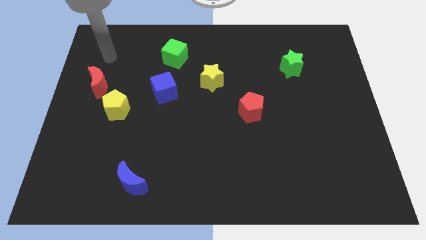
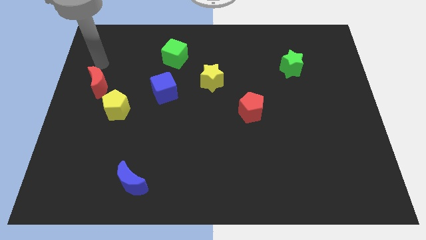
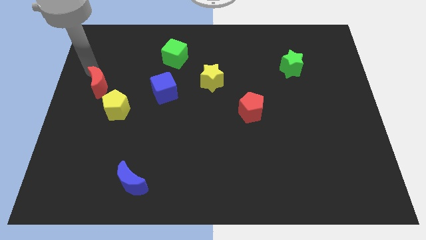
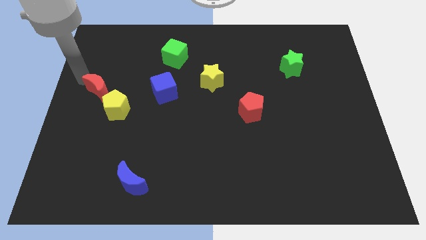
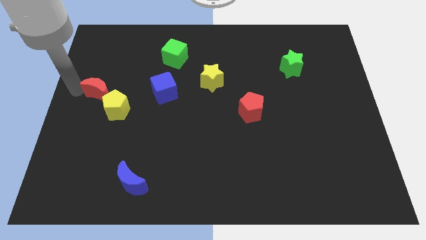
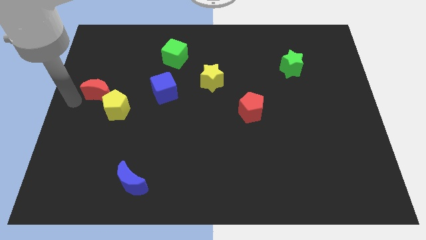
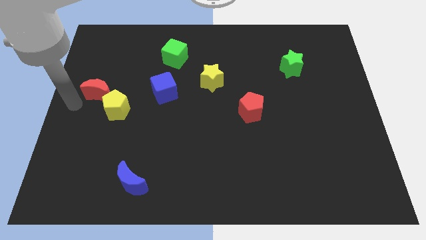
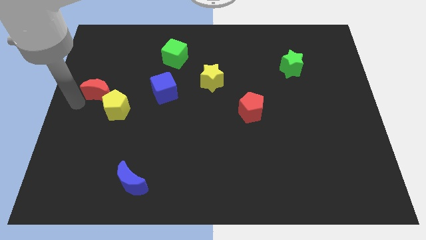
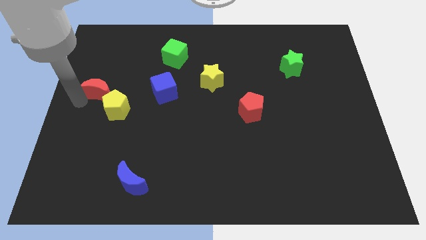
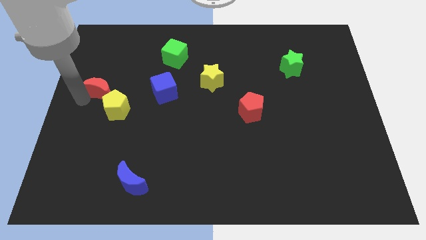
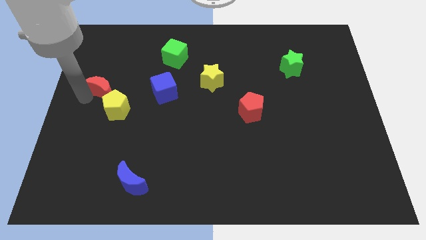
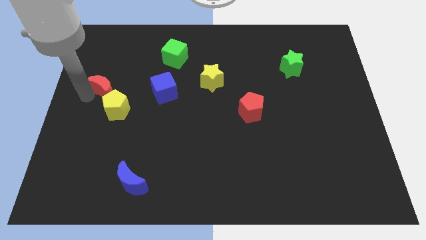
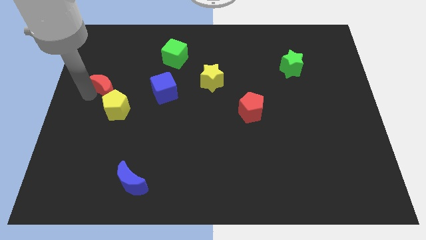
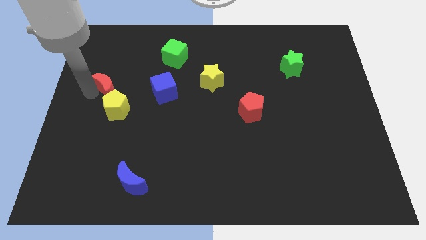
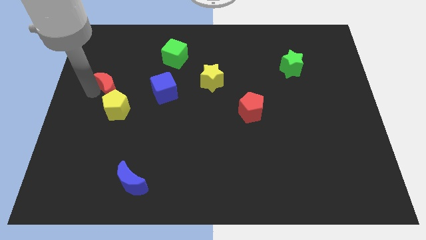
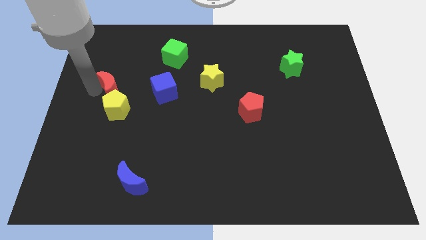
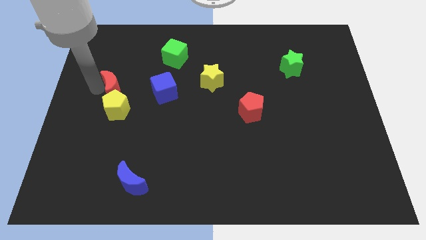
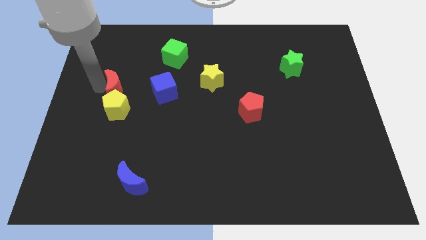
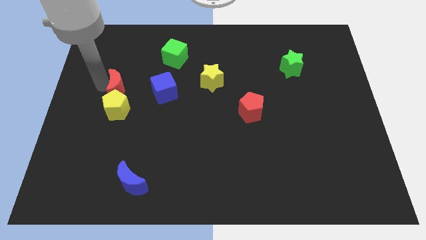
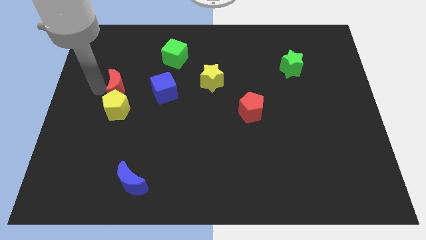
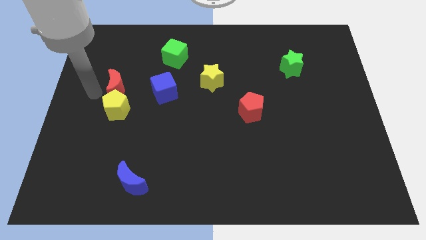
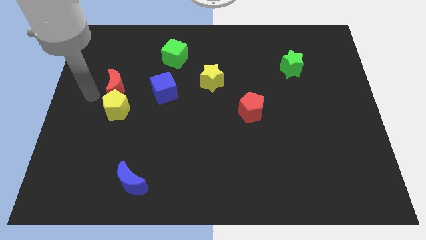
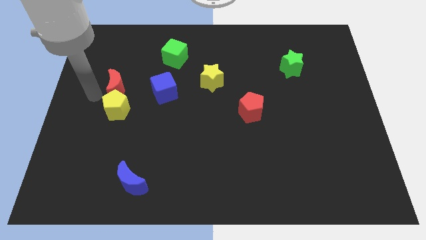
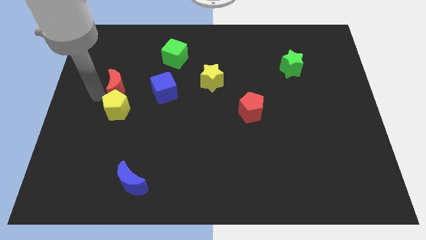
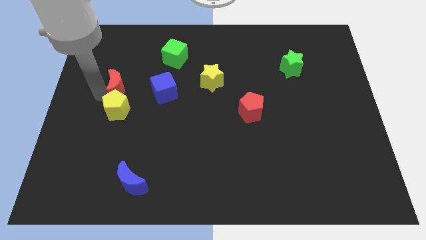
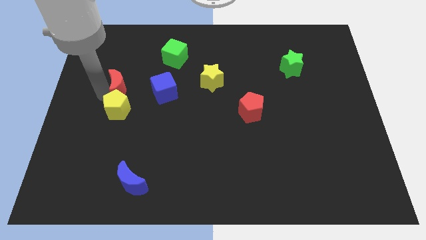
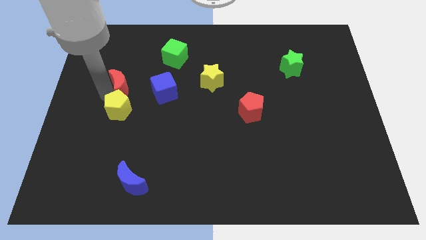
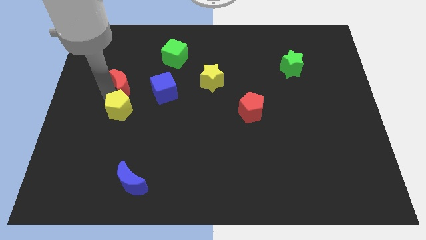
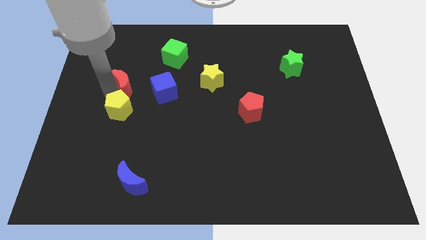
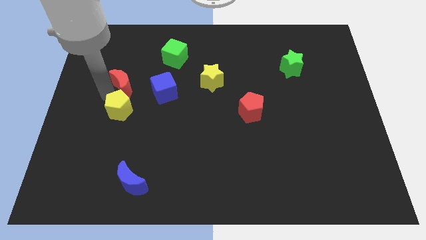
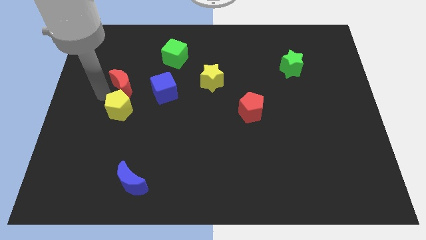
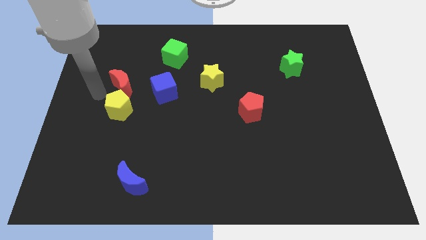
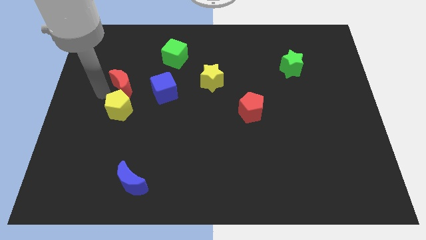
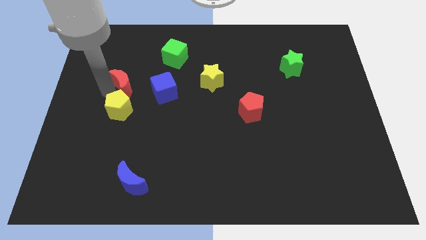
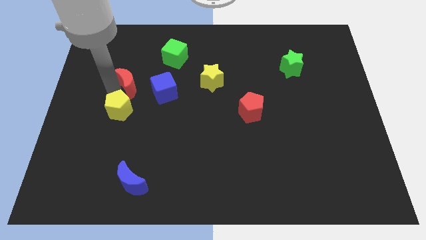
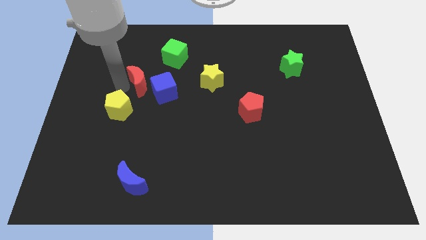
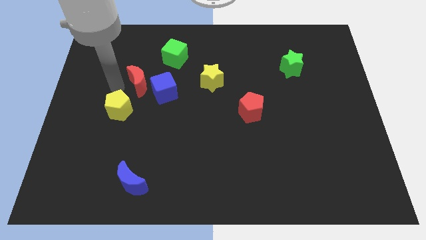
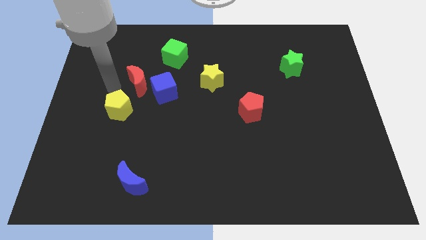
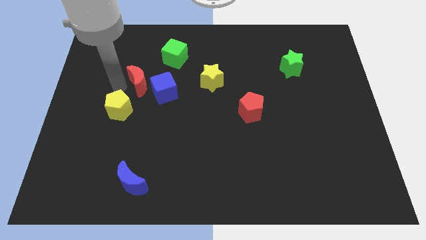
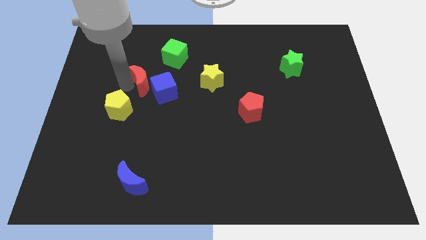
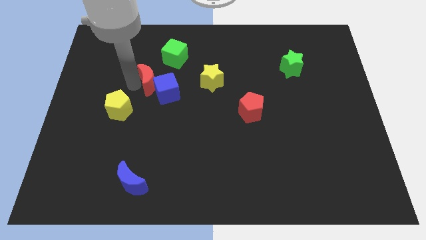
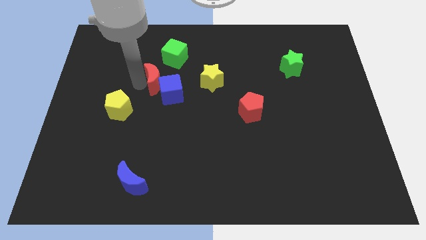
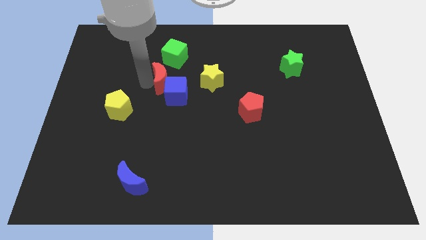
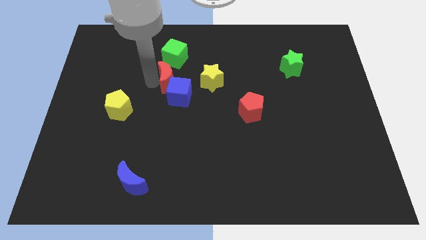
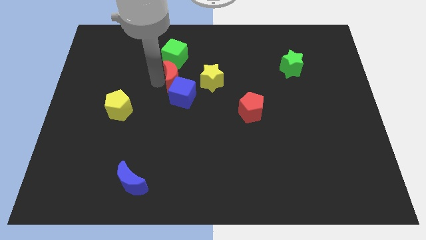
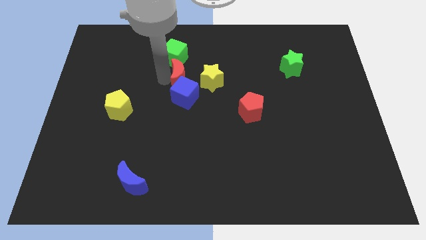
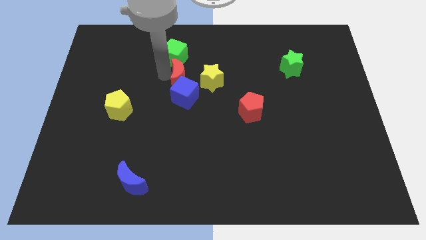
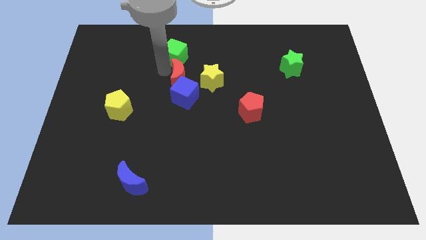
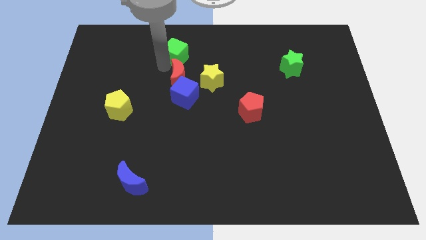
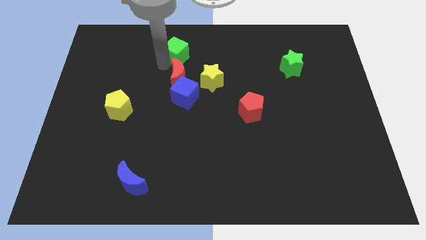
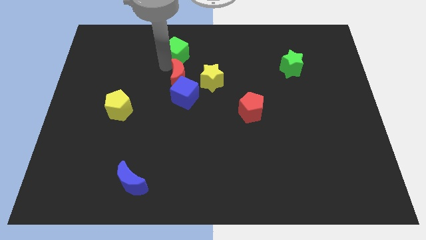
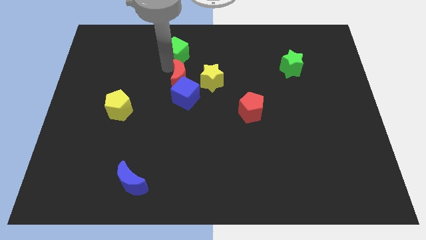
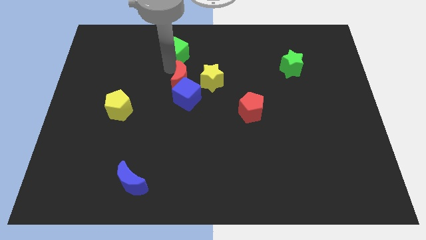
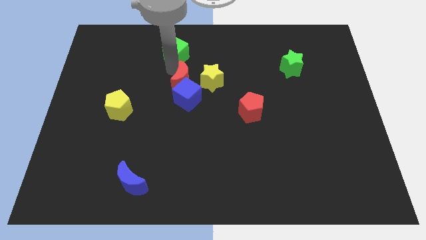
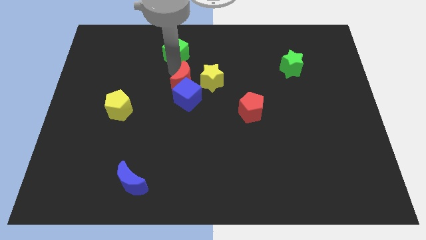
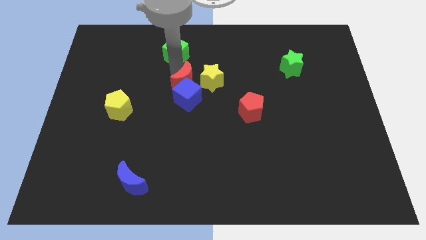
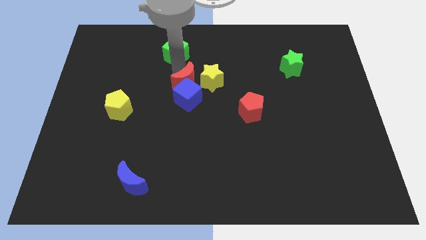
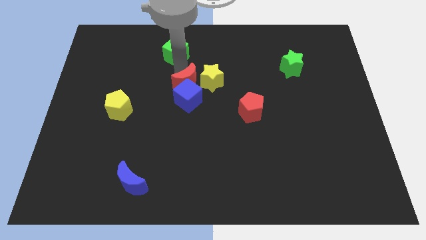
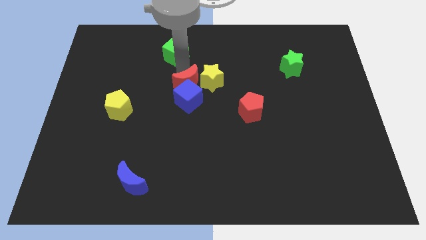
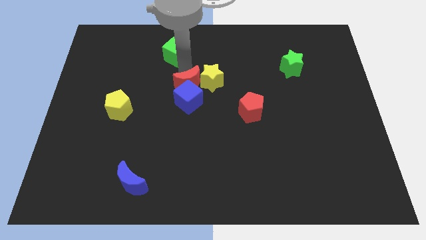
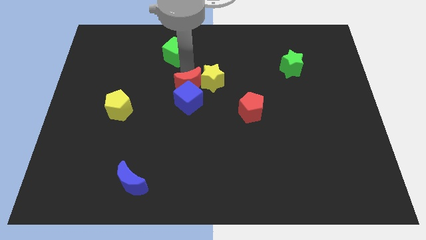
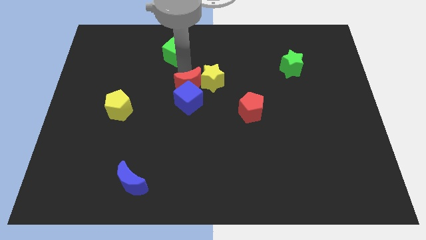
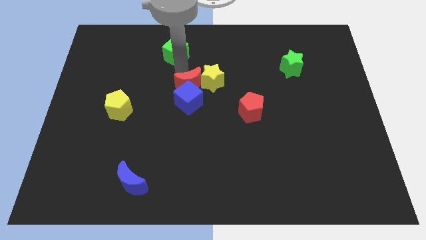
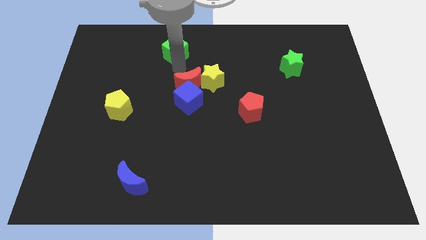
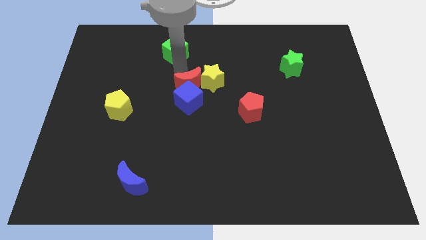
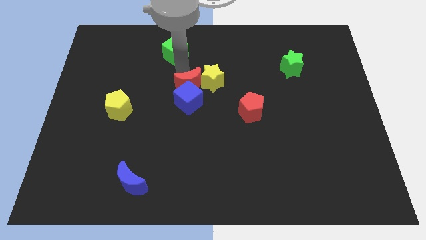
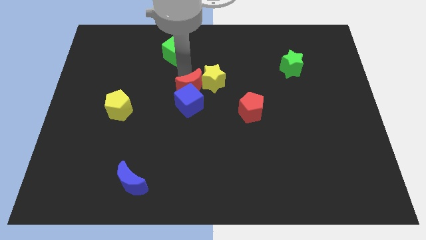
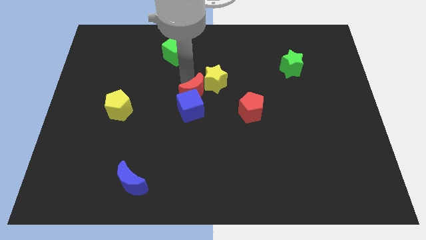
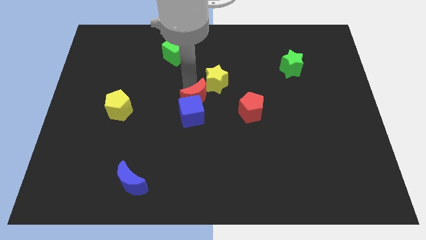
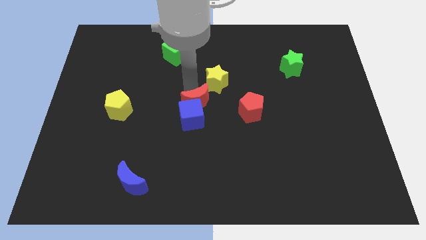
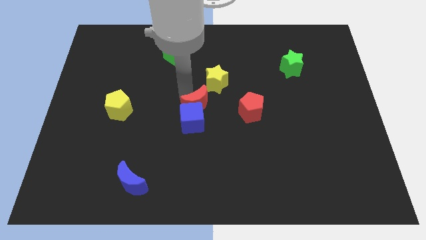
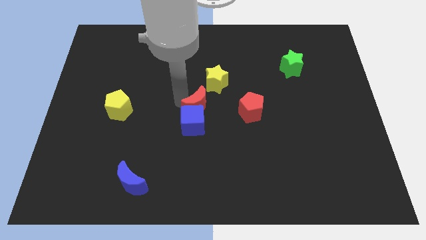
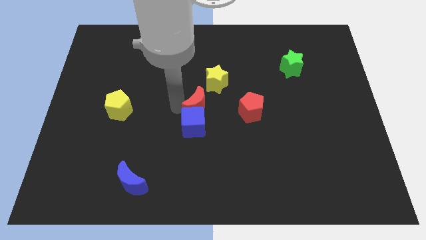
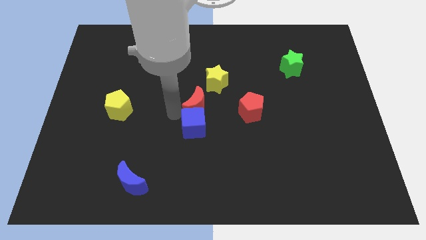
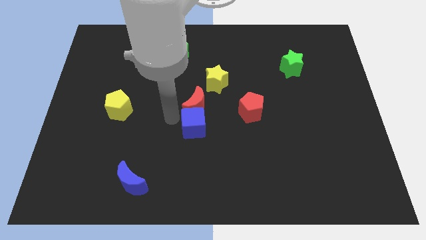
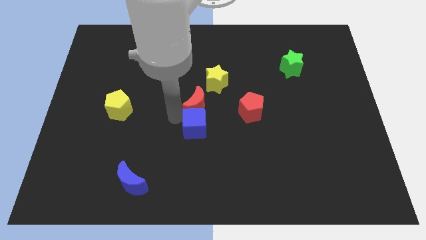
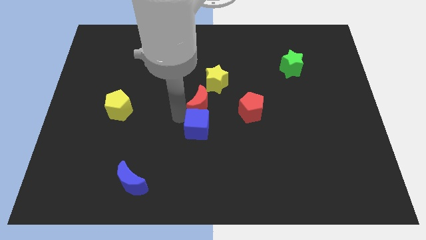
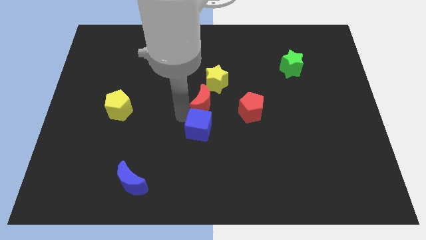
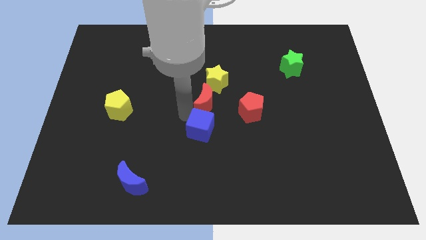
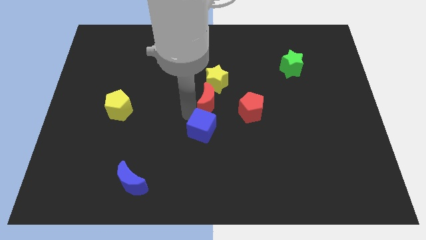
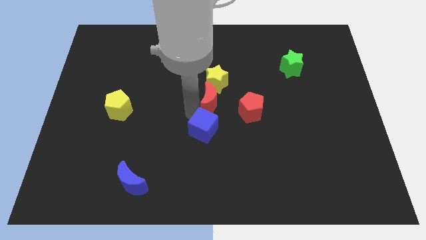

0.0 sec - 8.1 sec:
push the red moon diagonally up and to the left of the red pentagon
